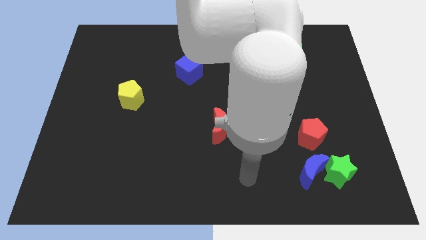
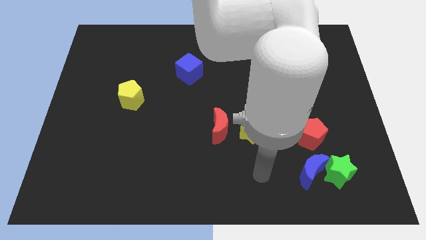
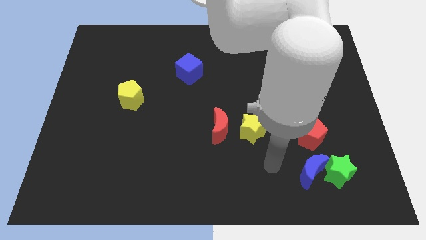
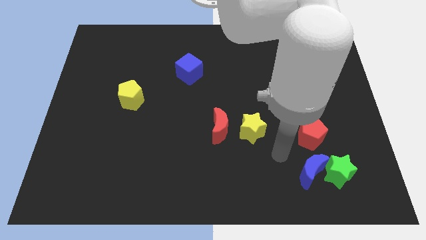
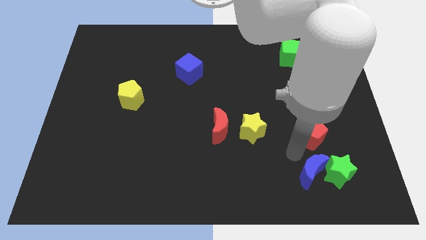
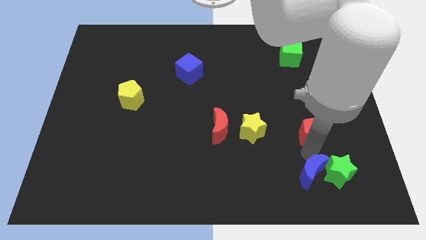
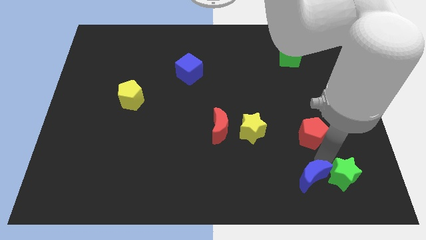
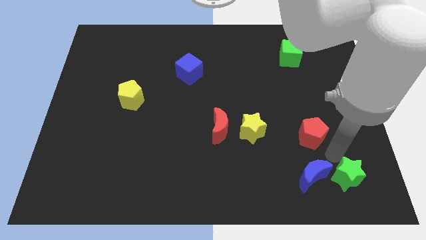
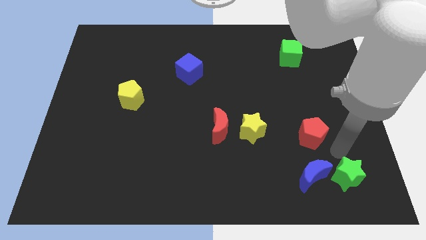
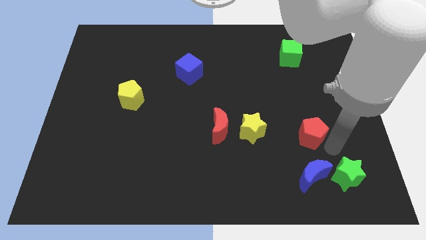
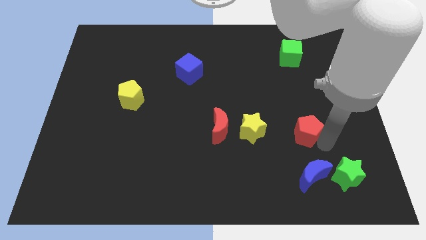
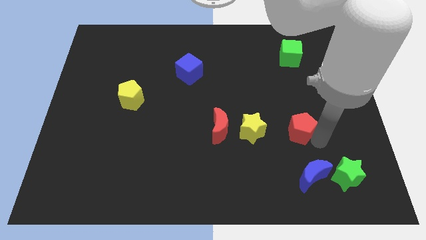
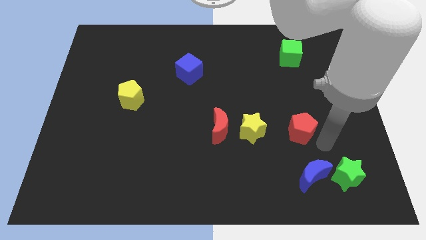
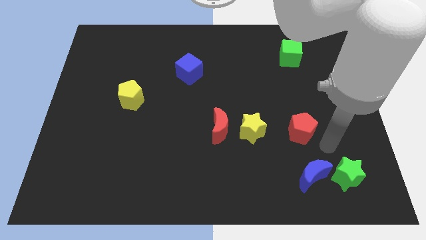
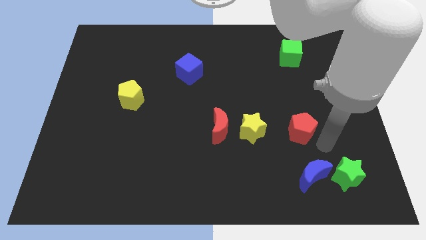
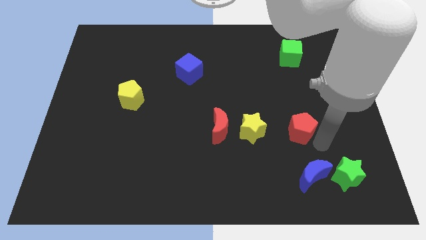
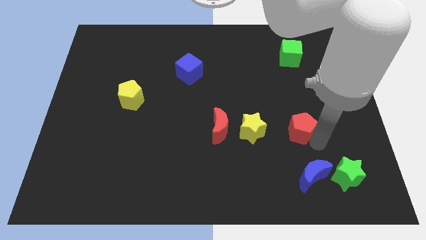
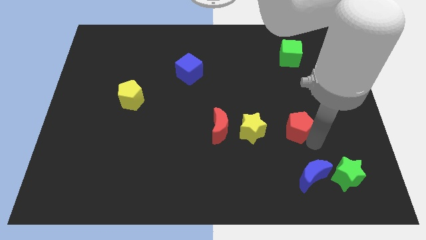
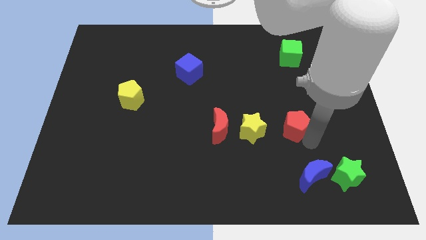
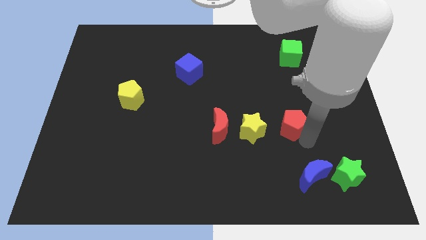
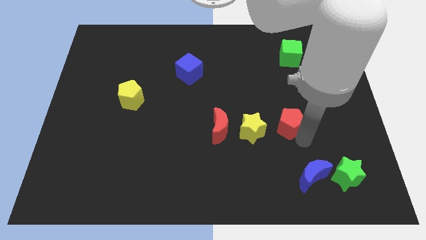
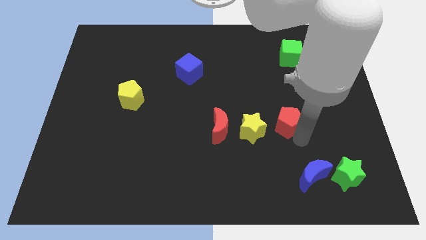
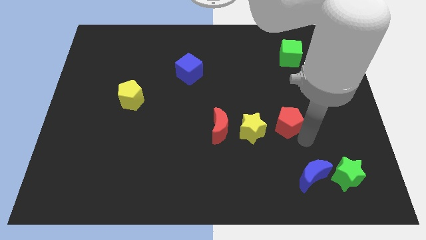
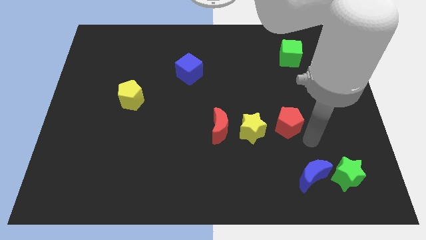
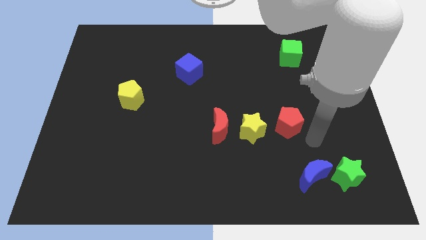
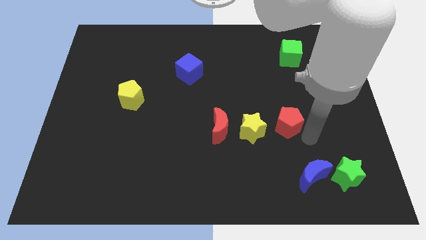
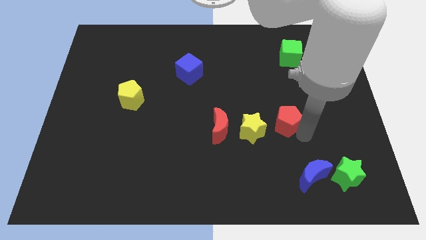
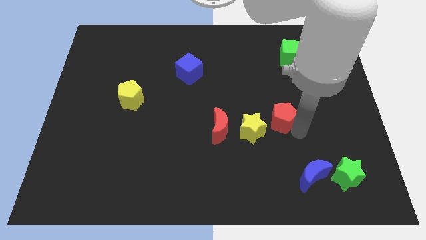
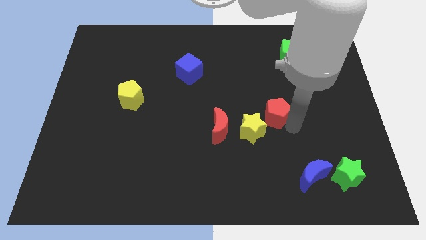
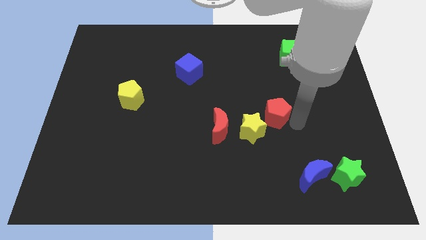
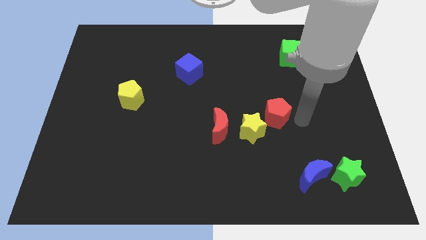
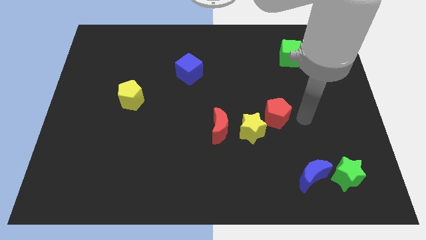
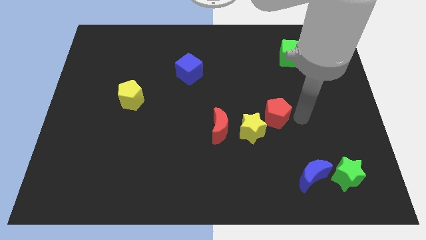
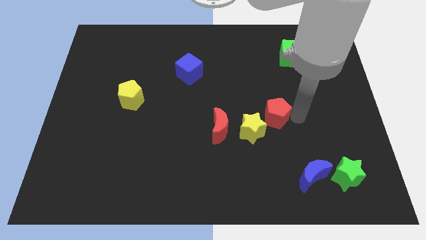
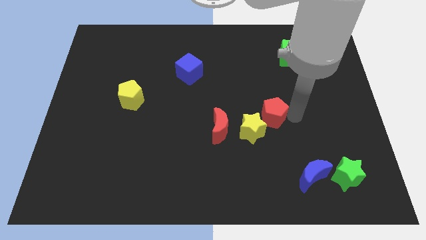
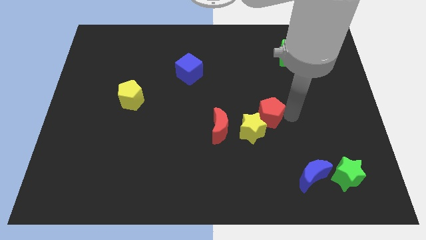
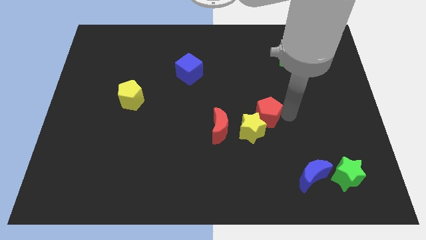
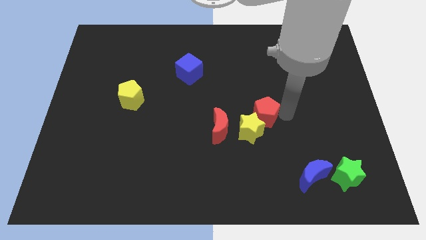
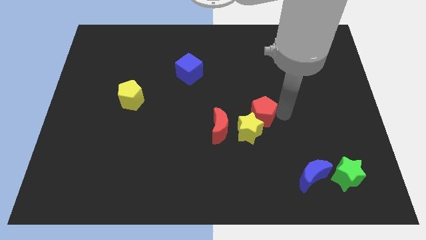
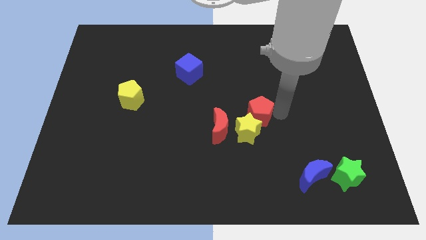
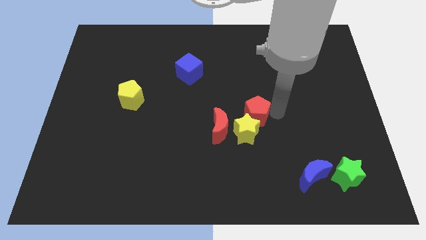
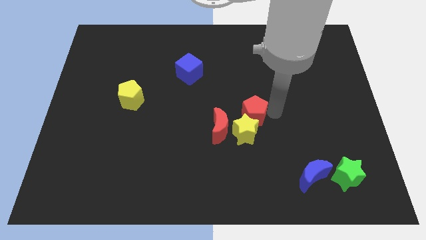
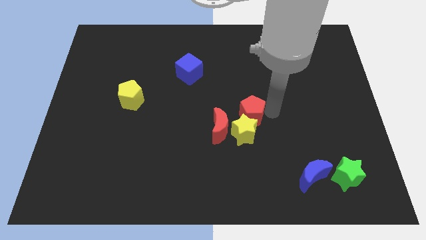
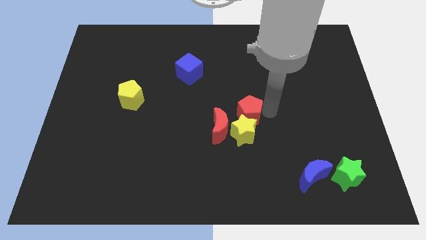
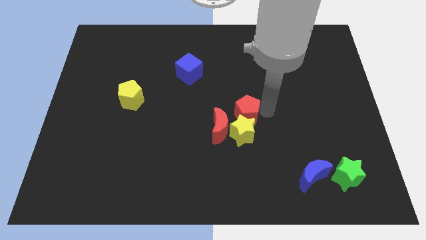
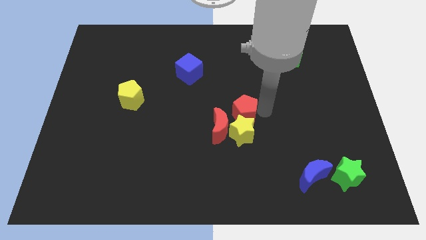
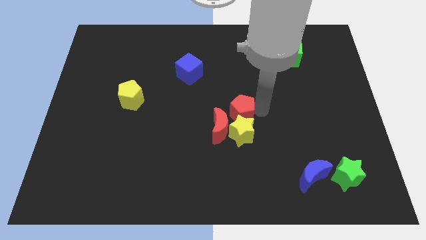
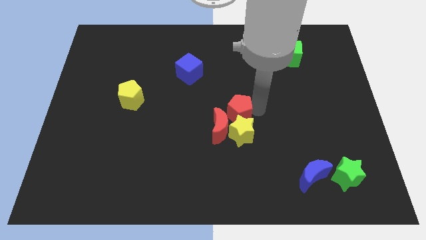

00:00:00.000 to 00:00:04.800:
move the red pentagon next to the red moon

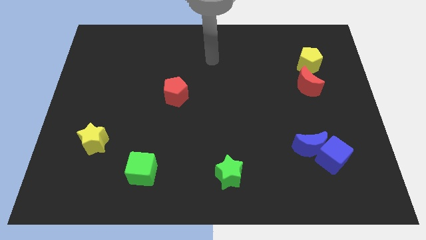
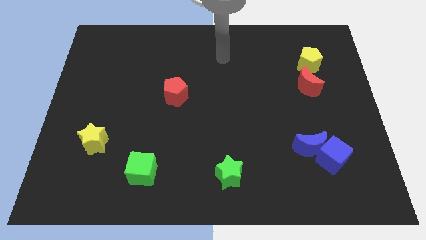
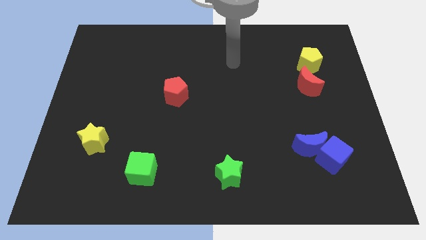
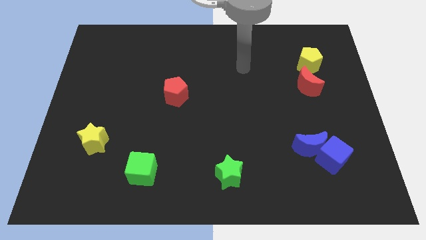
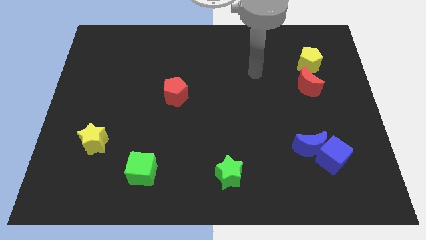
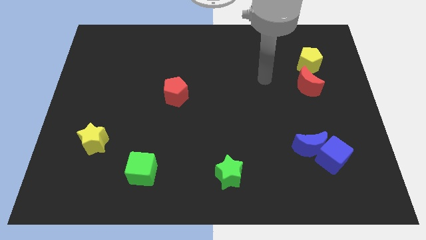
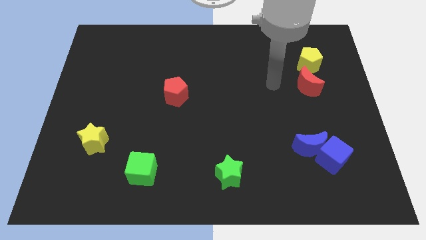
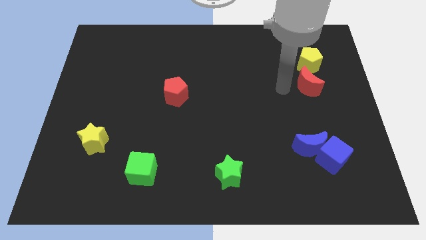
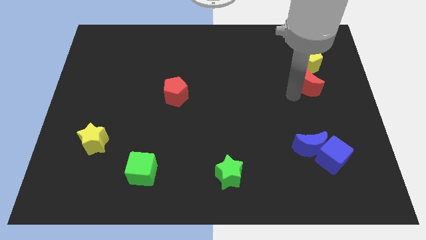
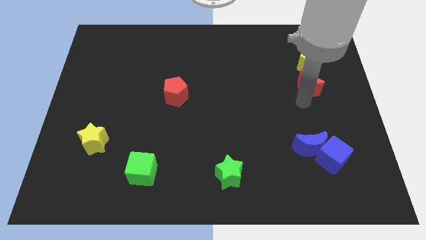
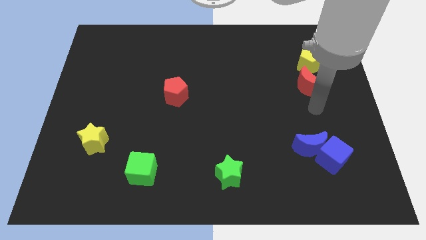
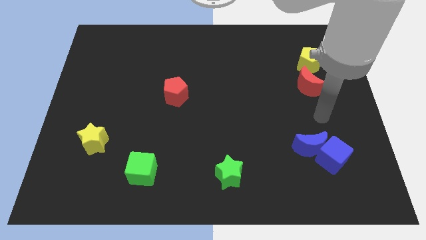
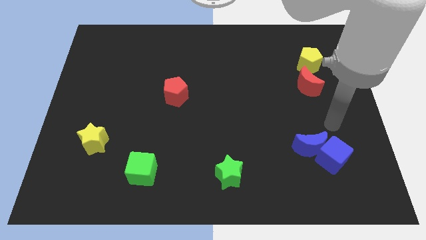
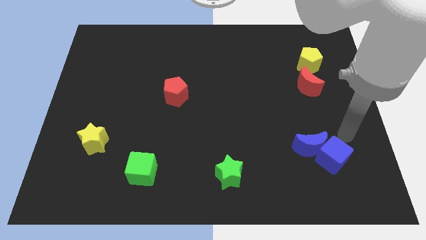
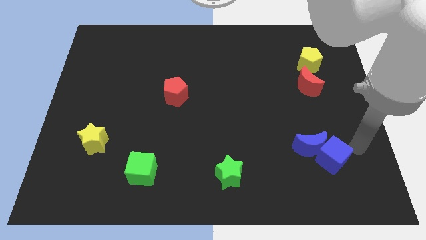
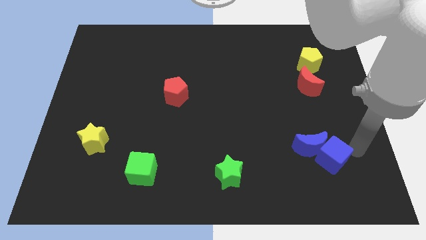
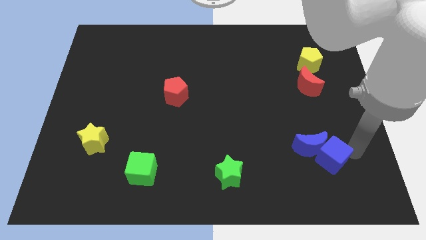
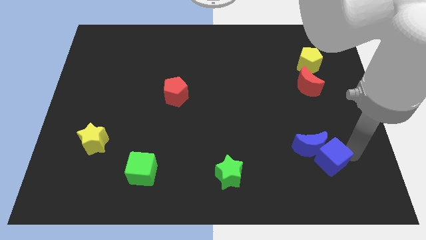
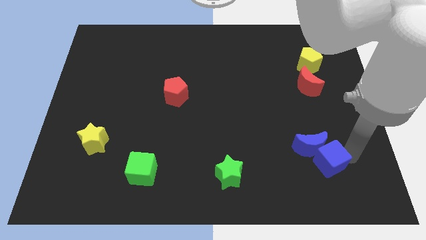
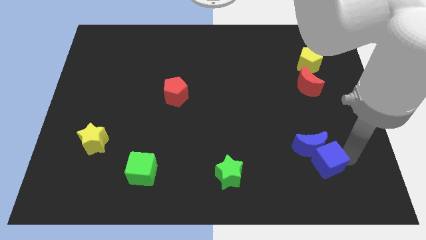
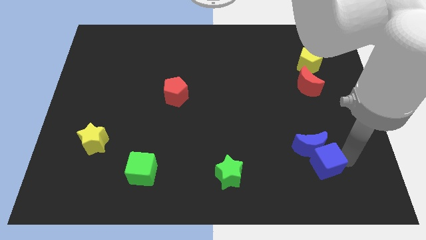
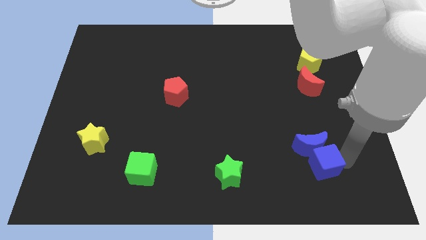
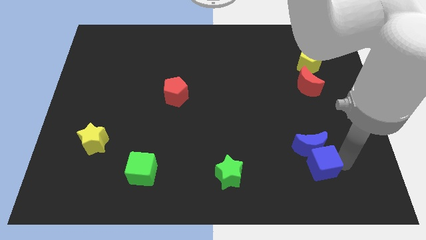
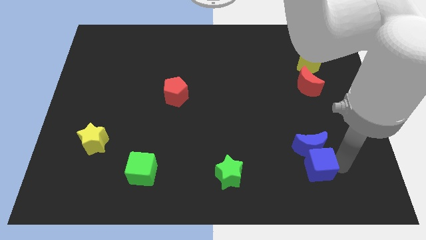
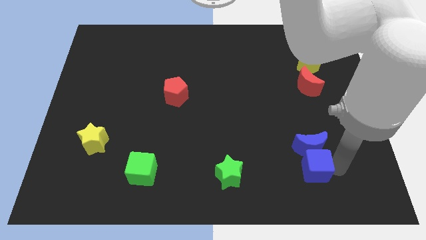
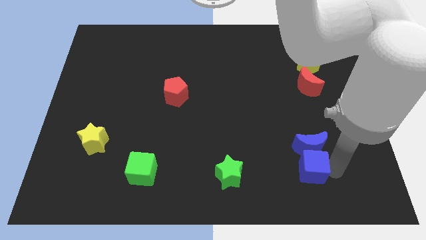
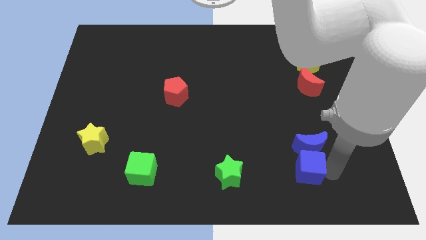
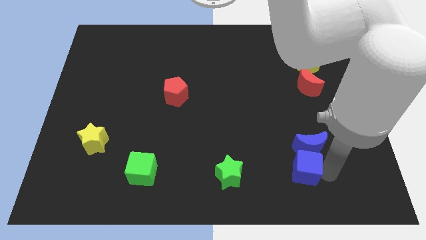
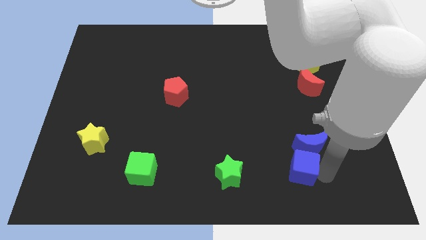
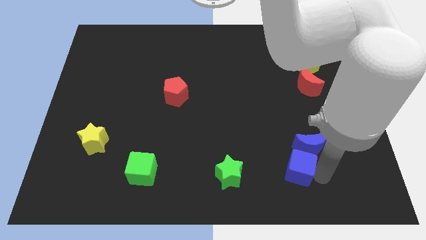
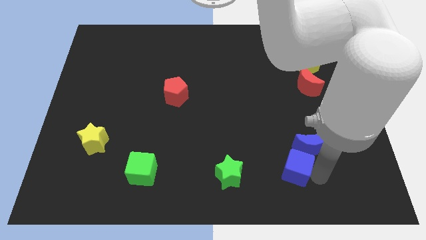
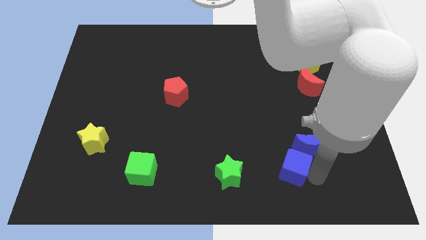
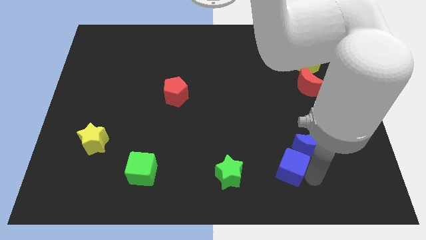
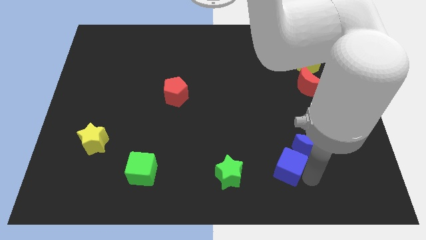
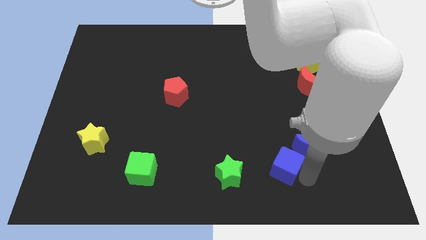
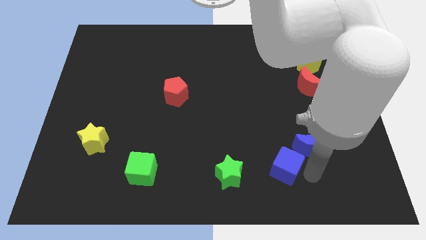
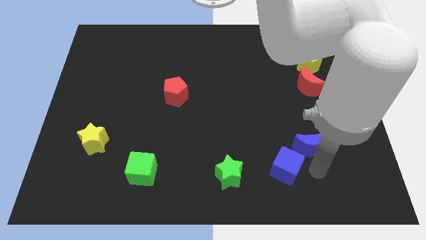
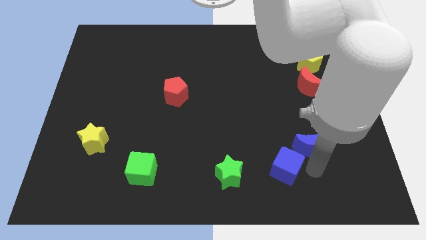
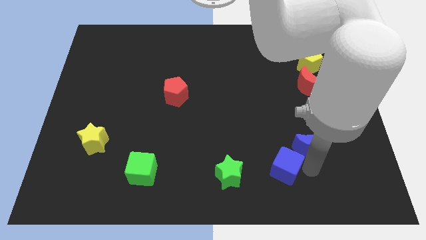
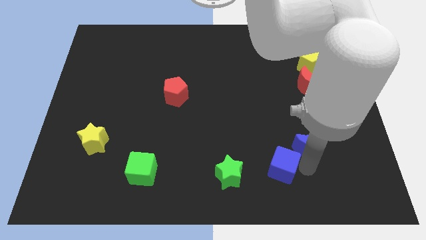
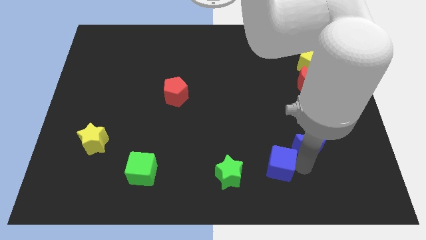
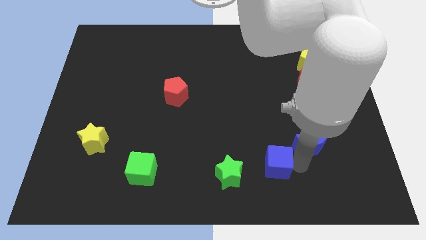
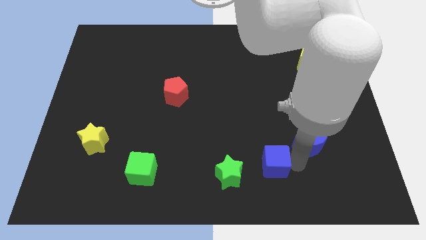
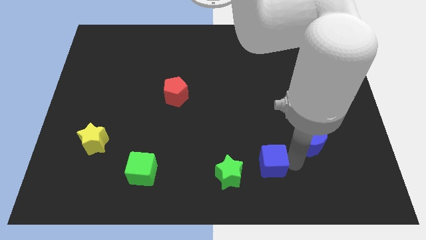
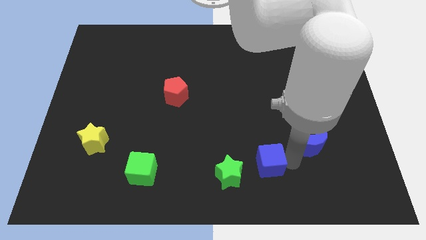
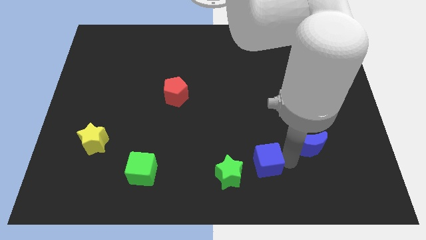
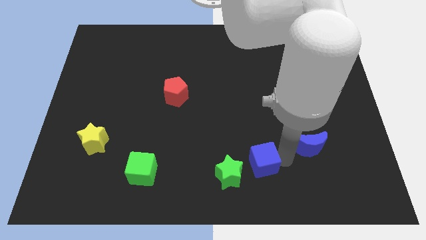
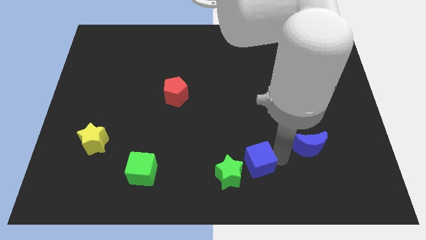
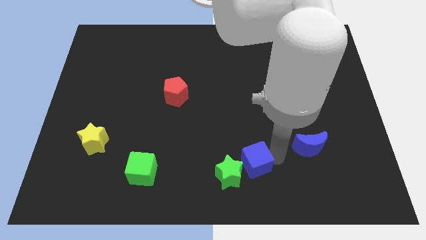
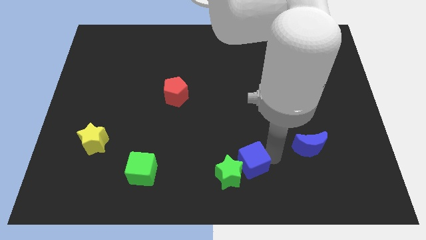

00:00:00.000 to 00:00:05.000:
put the blue cube to the green star
